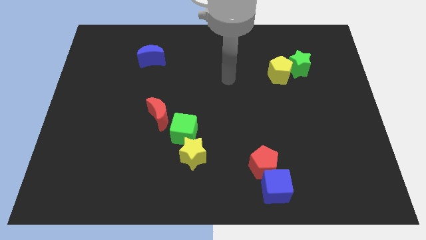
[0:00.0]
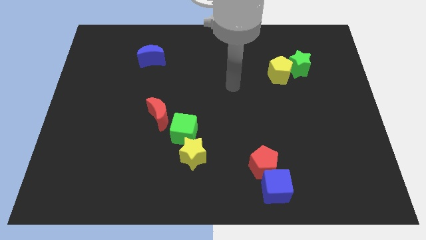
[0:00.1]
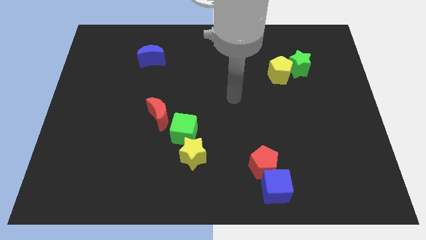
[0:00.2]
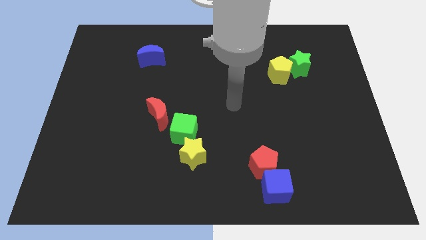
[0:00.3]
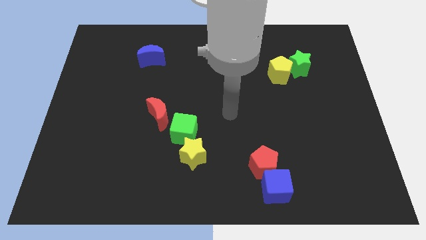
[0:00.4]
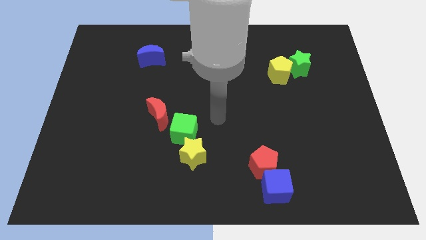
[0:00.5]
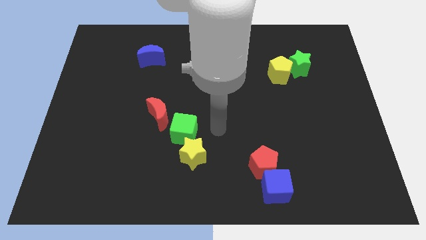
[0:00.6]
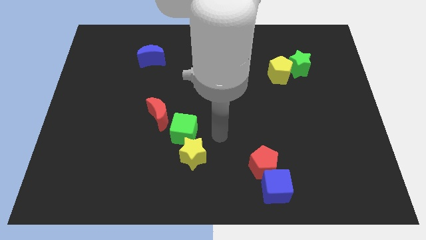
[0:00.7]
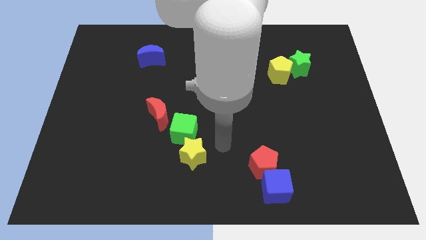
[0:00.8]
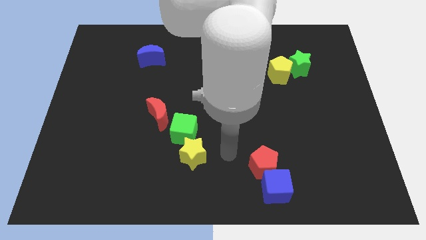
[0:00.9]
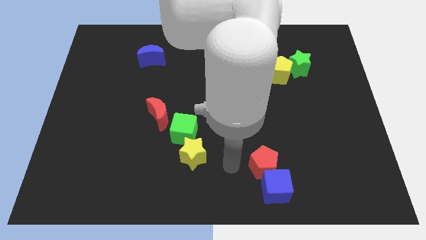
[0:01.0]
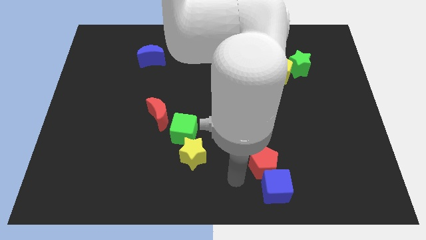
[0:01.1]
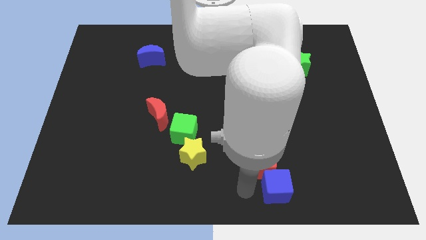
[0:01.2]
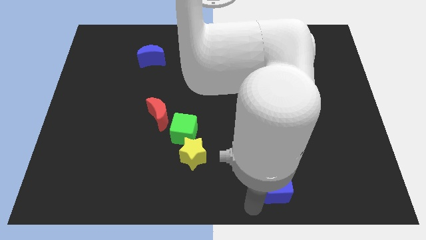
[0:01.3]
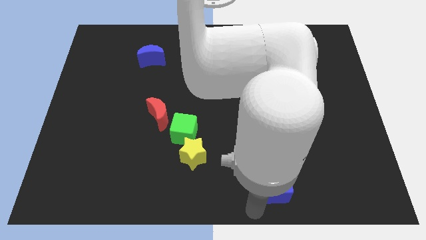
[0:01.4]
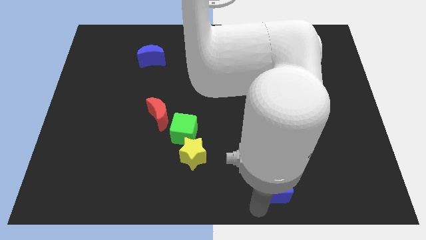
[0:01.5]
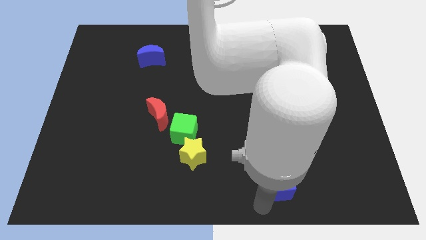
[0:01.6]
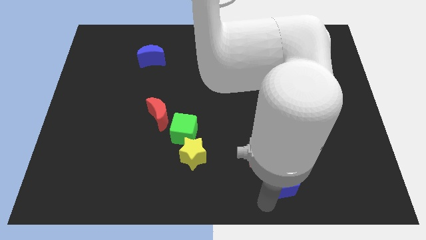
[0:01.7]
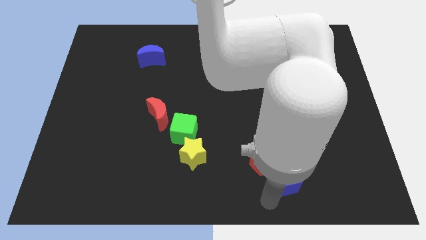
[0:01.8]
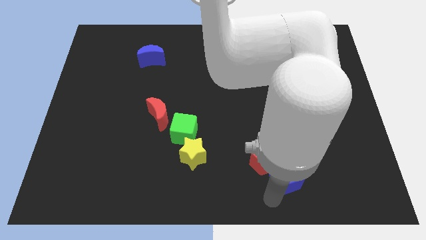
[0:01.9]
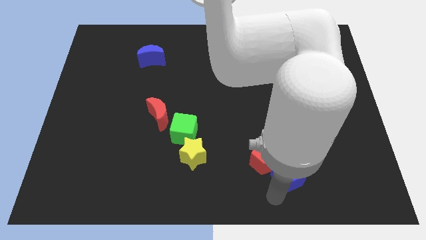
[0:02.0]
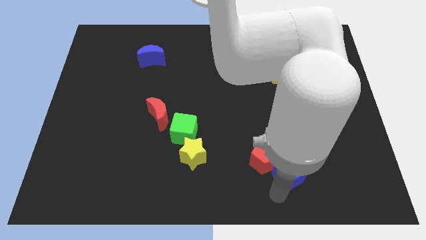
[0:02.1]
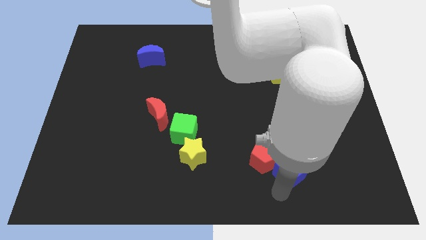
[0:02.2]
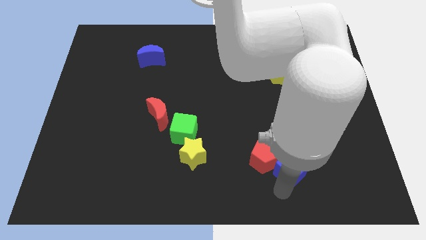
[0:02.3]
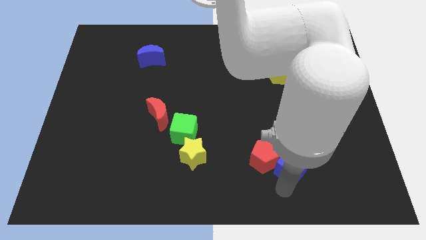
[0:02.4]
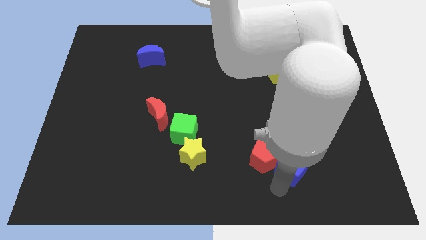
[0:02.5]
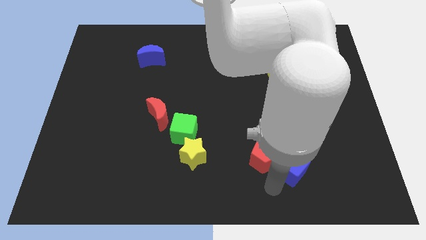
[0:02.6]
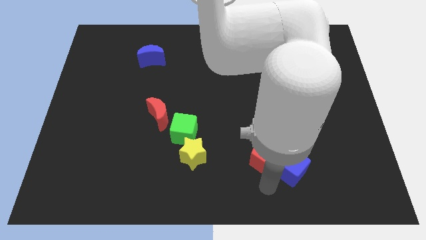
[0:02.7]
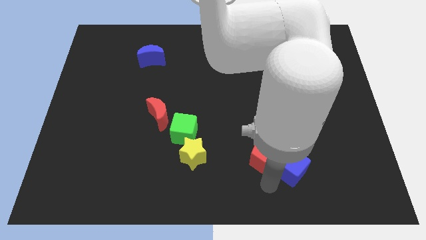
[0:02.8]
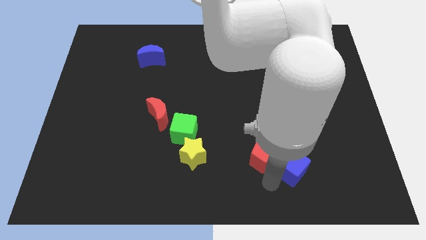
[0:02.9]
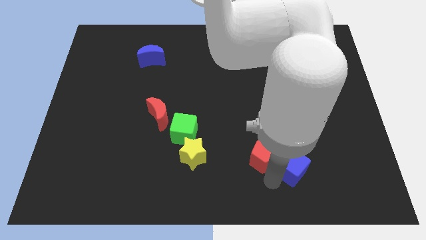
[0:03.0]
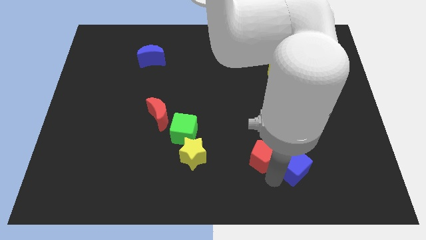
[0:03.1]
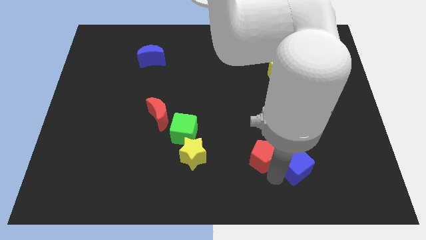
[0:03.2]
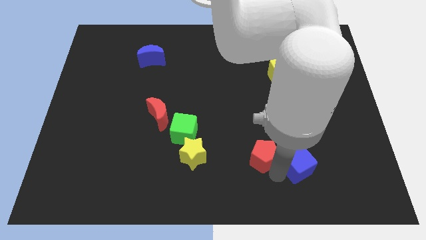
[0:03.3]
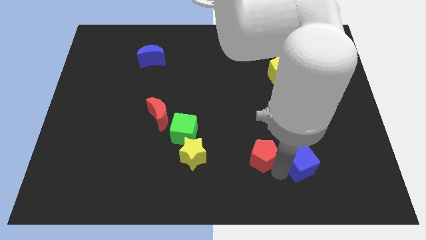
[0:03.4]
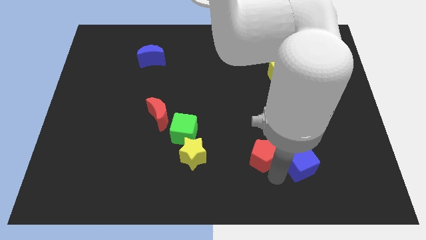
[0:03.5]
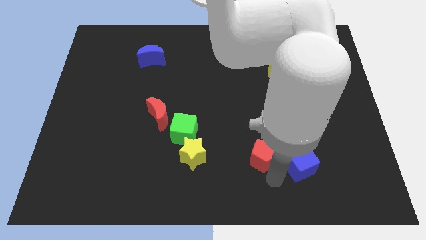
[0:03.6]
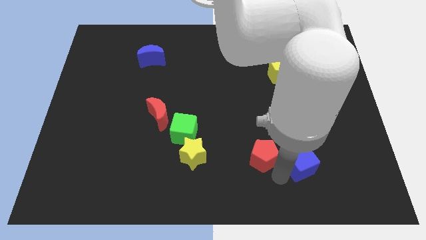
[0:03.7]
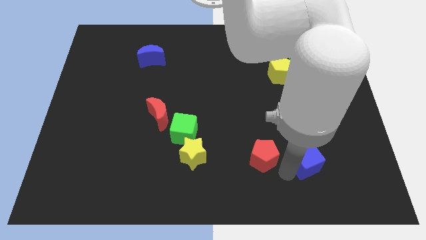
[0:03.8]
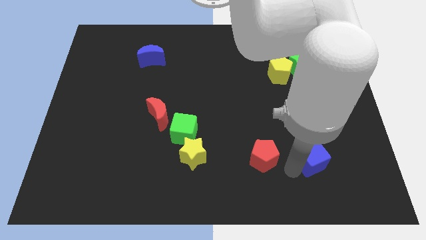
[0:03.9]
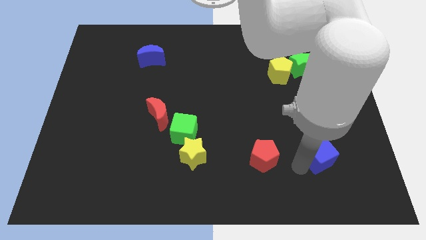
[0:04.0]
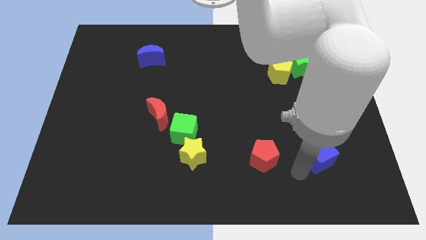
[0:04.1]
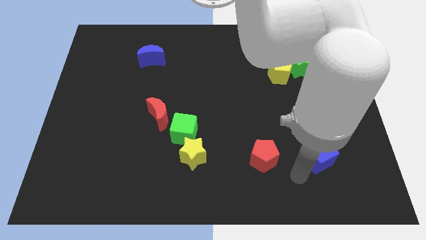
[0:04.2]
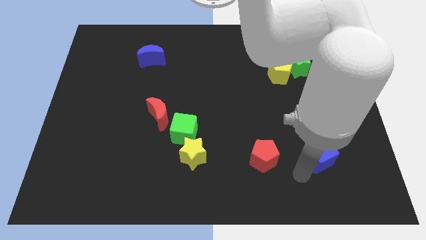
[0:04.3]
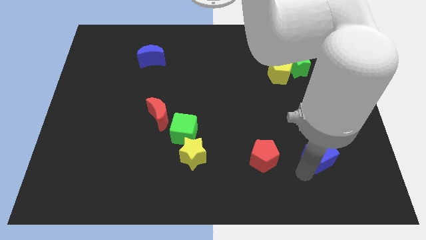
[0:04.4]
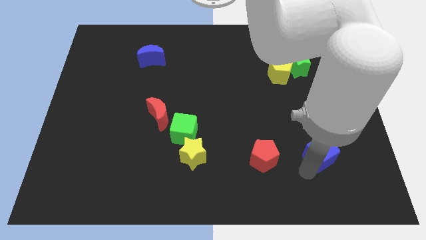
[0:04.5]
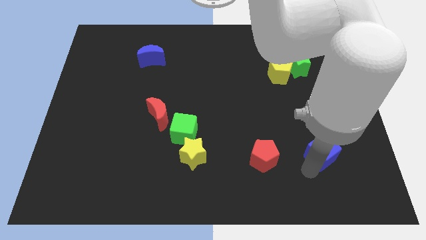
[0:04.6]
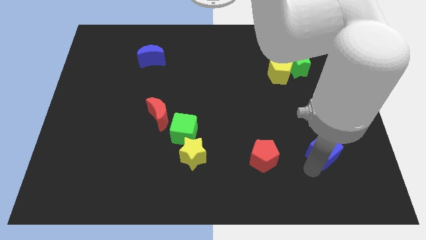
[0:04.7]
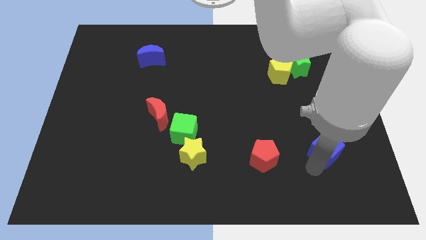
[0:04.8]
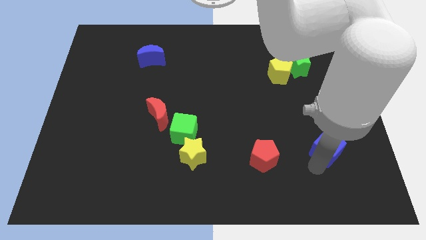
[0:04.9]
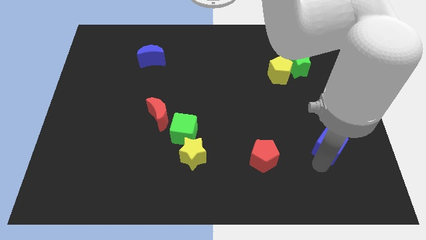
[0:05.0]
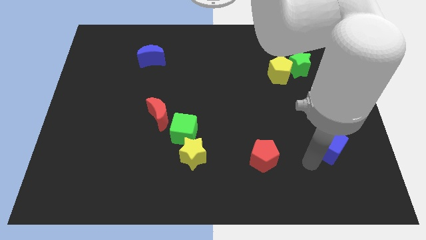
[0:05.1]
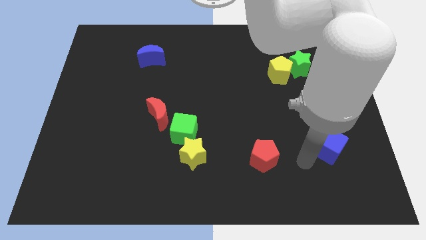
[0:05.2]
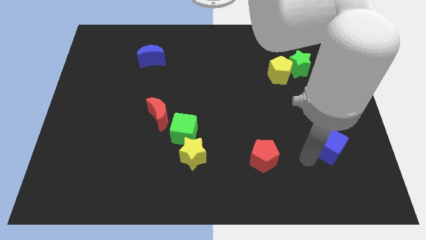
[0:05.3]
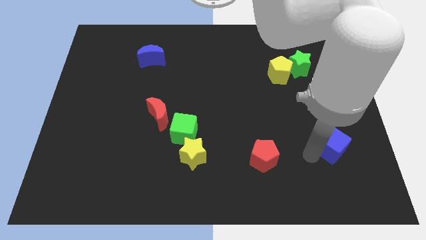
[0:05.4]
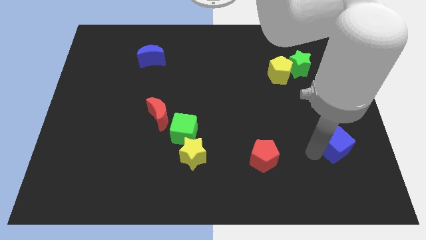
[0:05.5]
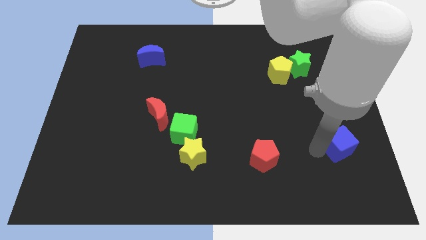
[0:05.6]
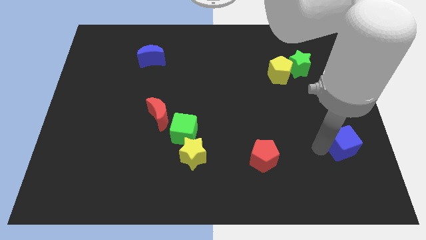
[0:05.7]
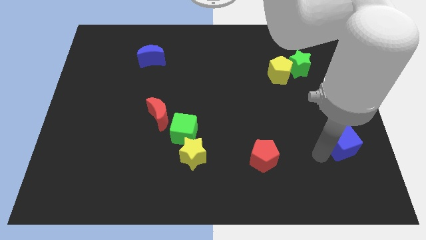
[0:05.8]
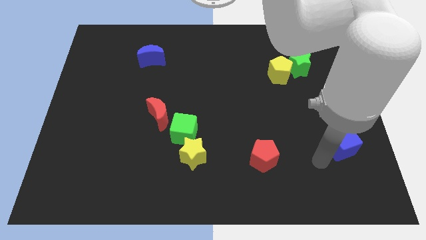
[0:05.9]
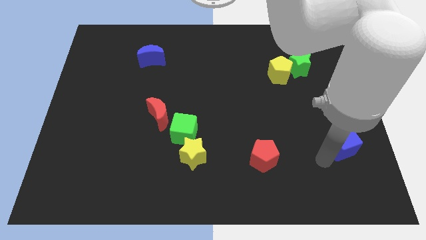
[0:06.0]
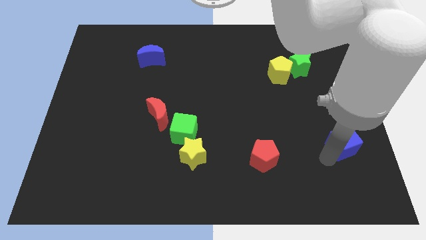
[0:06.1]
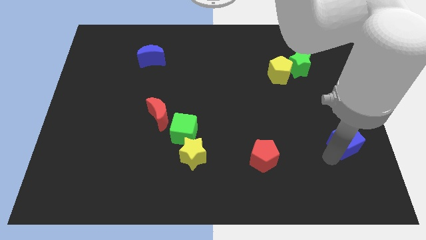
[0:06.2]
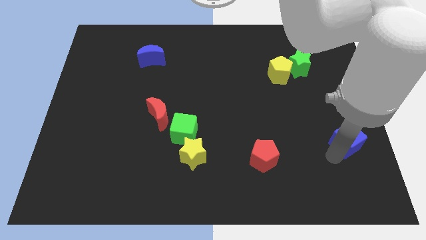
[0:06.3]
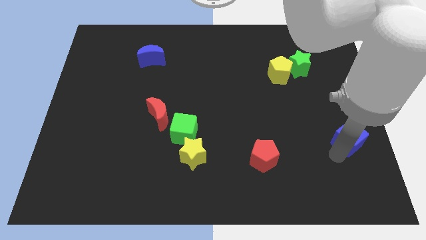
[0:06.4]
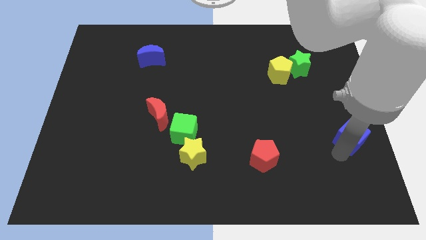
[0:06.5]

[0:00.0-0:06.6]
push the blue cube to the center right

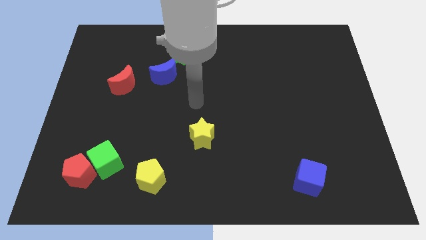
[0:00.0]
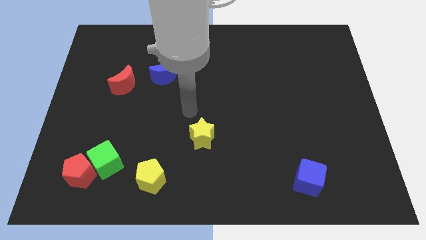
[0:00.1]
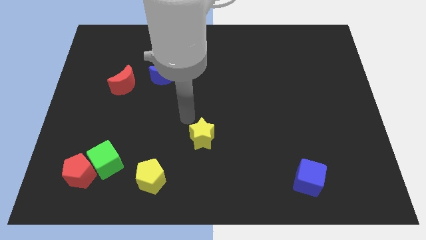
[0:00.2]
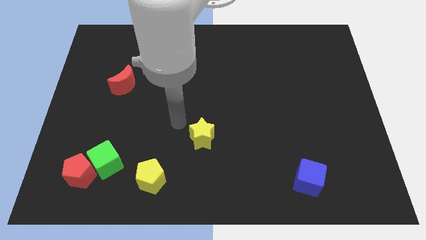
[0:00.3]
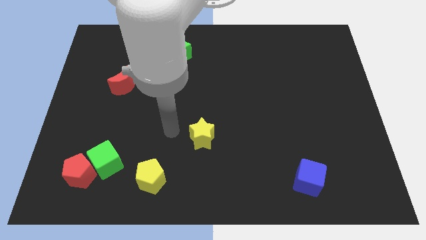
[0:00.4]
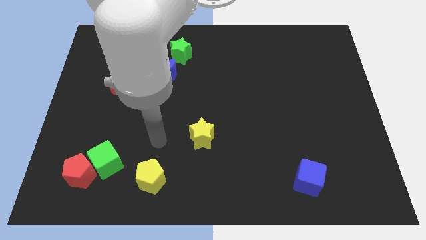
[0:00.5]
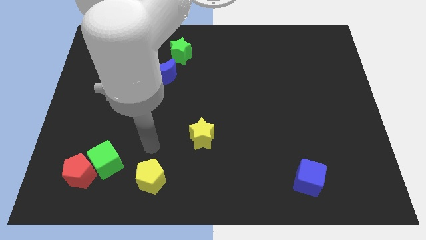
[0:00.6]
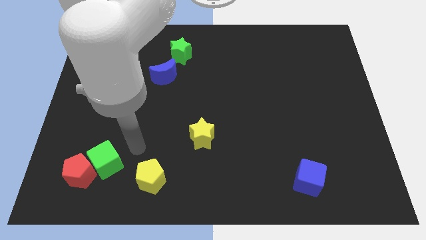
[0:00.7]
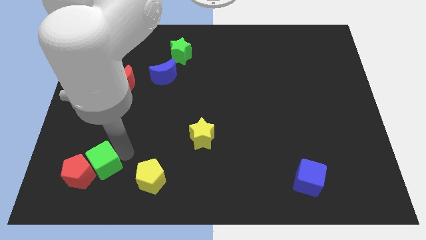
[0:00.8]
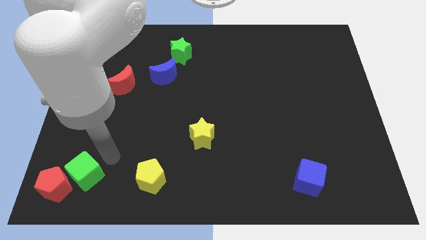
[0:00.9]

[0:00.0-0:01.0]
put the red pentagon to the bottom left corner
